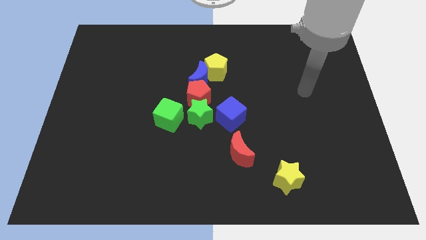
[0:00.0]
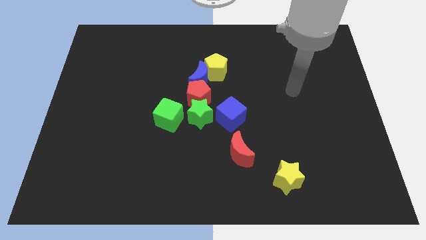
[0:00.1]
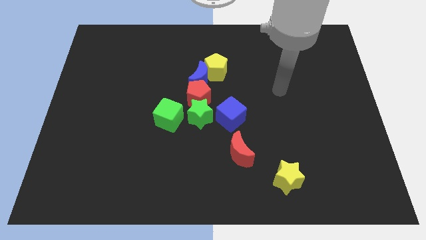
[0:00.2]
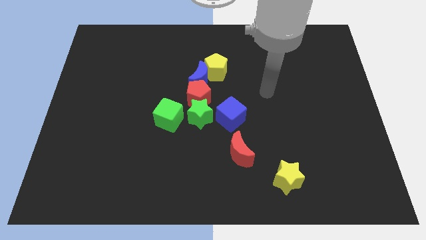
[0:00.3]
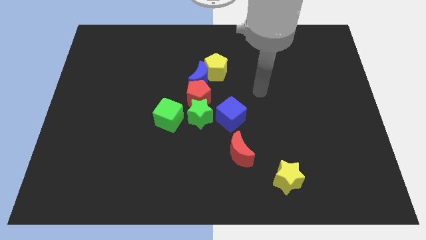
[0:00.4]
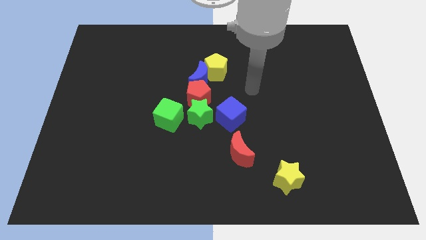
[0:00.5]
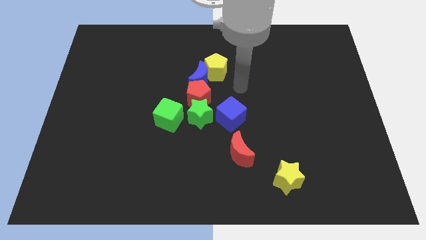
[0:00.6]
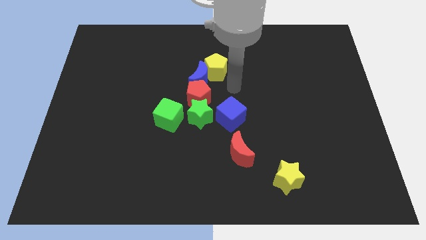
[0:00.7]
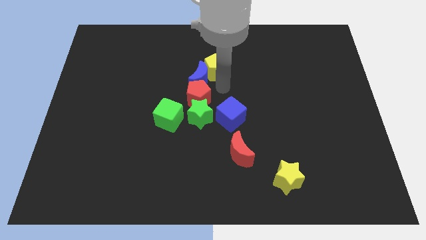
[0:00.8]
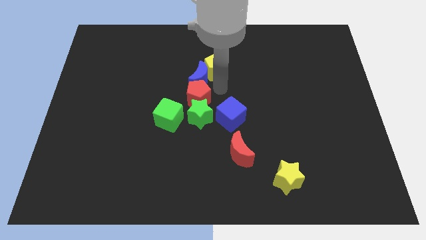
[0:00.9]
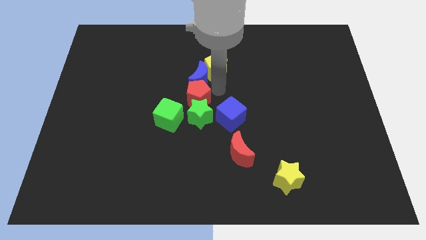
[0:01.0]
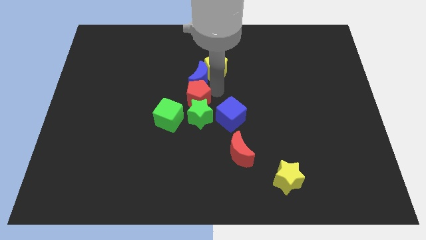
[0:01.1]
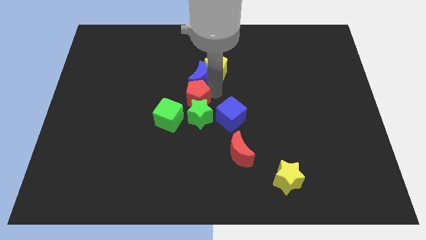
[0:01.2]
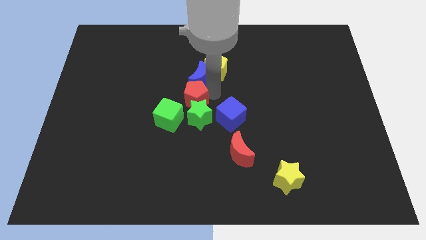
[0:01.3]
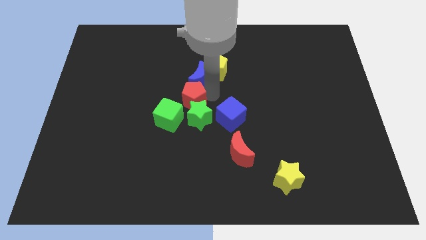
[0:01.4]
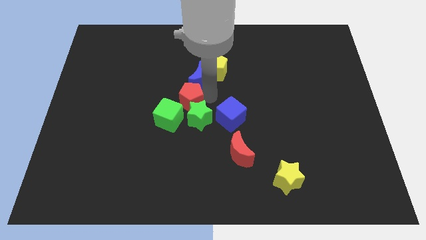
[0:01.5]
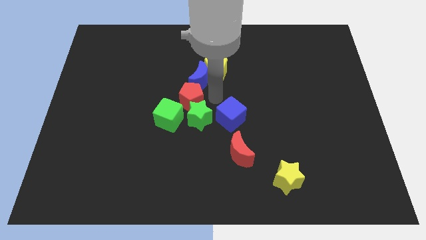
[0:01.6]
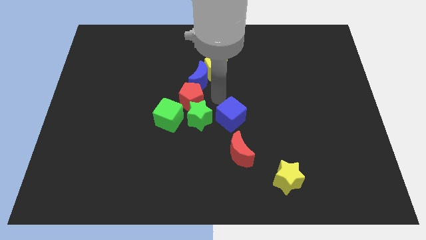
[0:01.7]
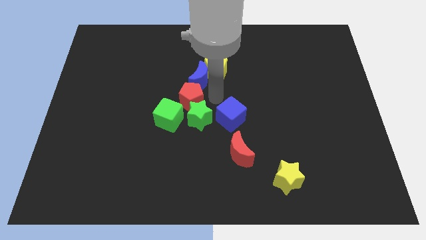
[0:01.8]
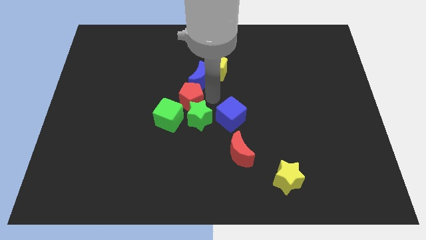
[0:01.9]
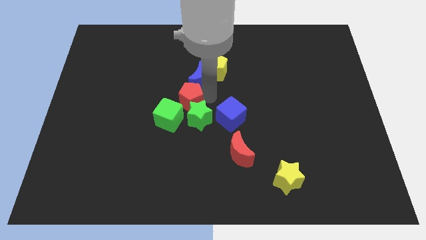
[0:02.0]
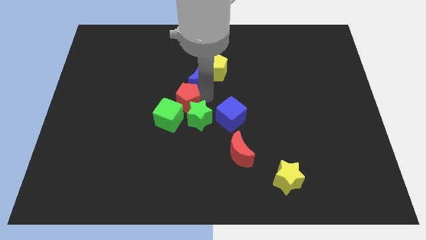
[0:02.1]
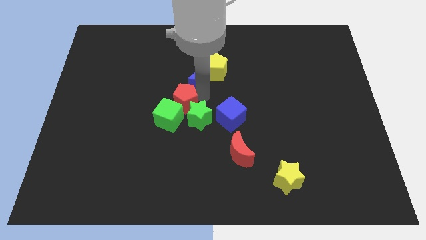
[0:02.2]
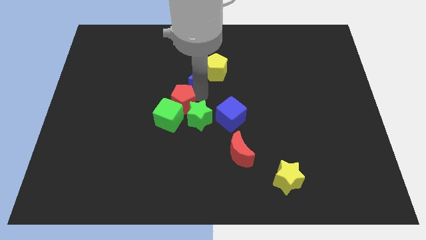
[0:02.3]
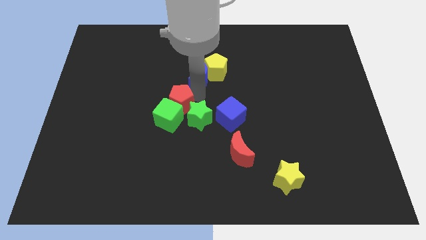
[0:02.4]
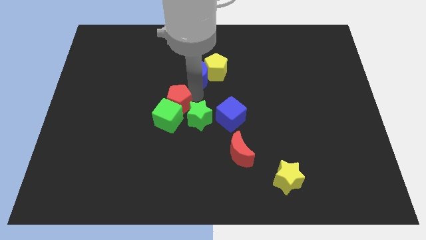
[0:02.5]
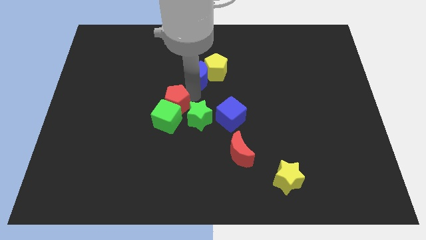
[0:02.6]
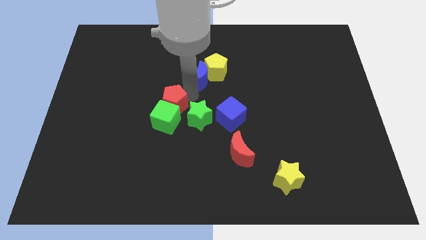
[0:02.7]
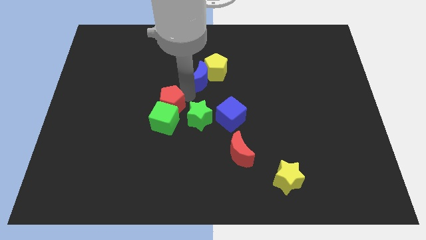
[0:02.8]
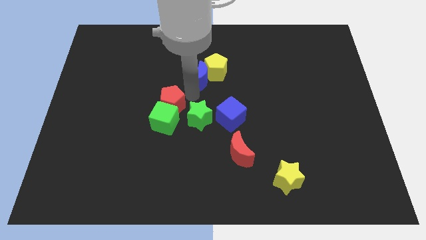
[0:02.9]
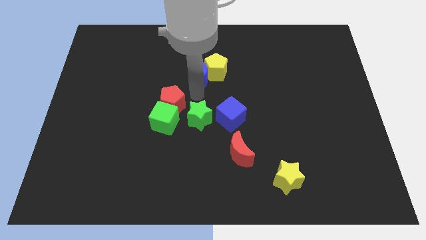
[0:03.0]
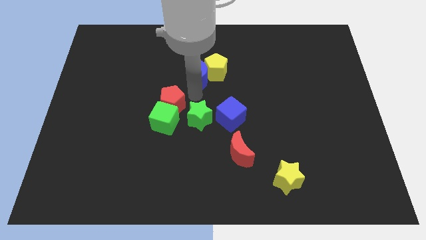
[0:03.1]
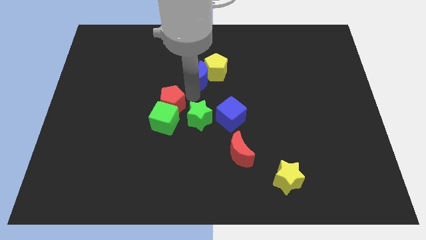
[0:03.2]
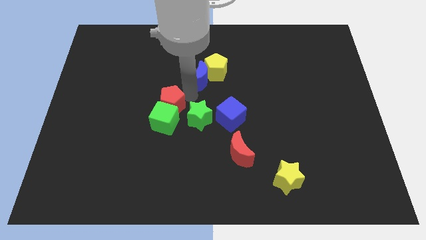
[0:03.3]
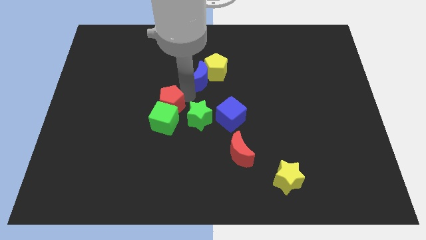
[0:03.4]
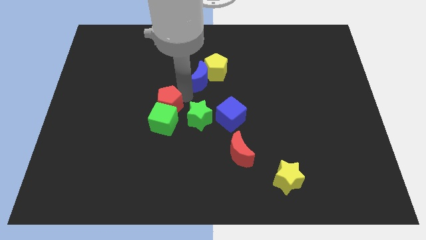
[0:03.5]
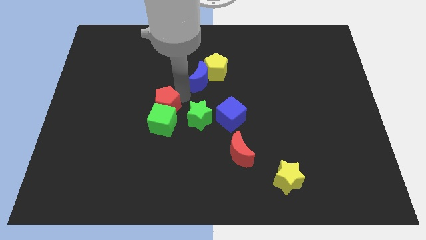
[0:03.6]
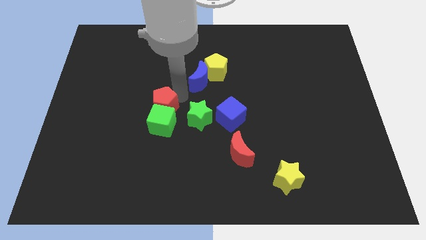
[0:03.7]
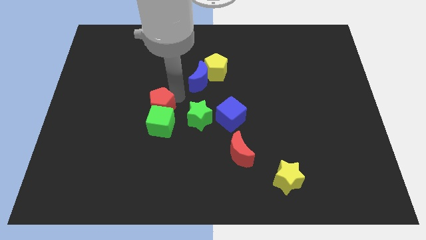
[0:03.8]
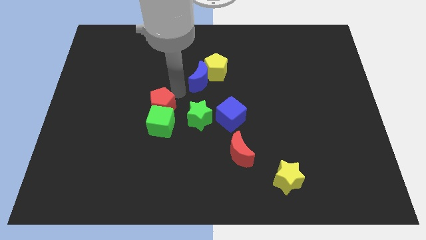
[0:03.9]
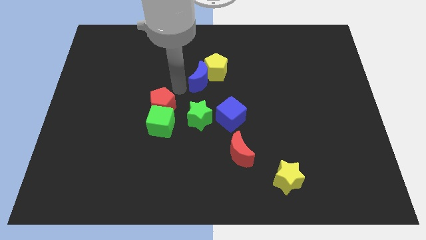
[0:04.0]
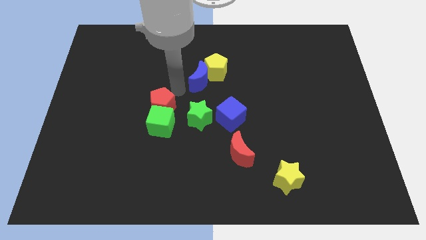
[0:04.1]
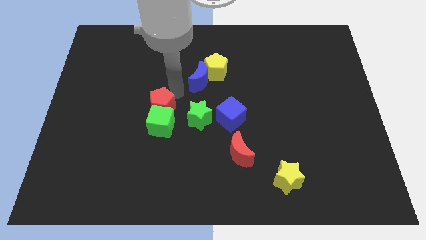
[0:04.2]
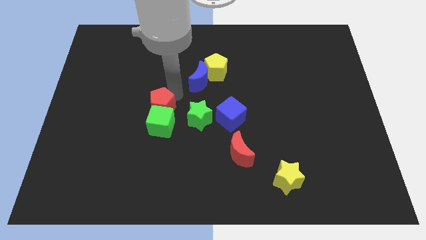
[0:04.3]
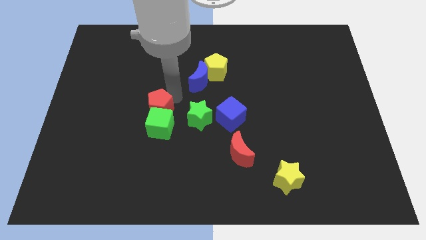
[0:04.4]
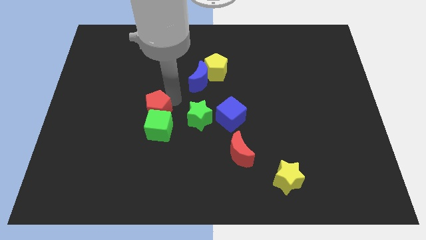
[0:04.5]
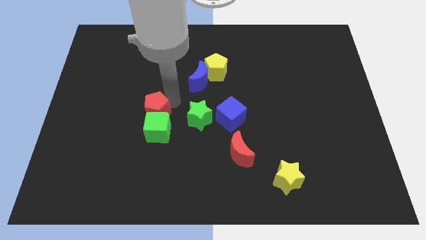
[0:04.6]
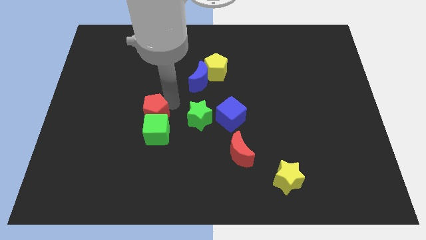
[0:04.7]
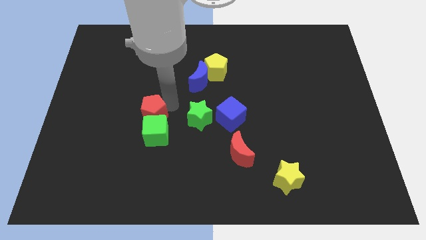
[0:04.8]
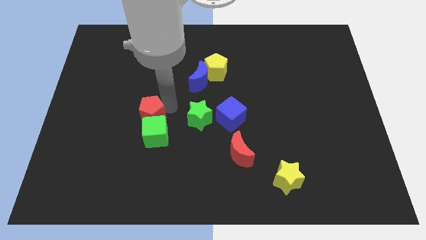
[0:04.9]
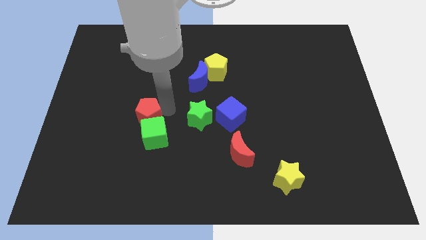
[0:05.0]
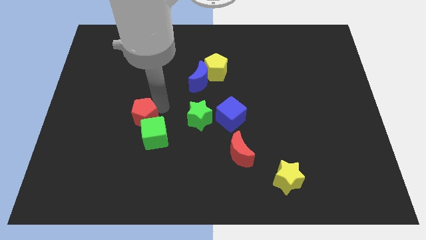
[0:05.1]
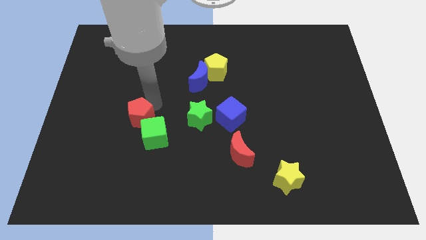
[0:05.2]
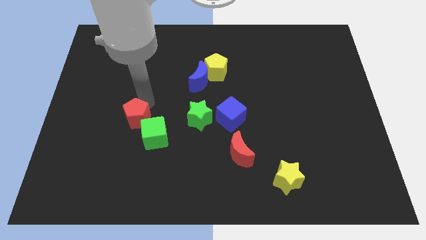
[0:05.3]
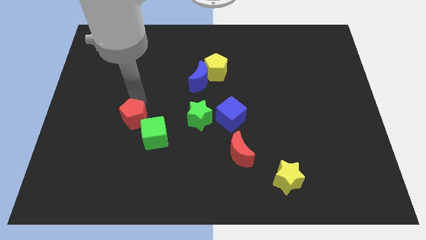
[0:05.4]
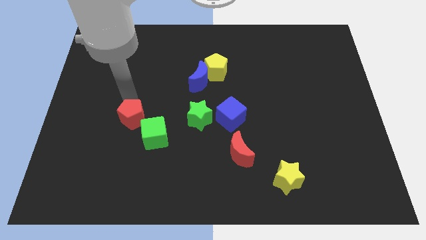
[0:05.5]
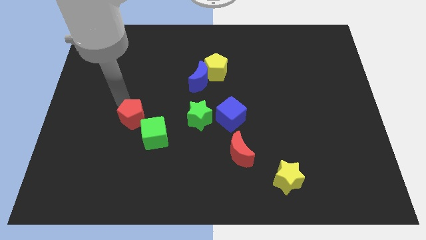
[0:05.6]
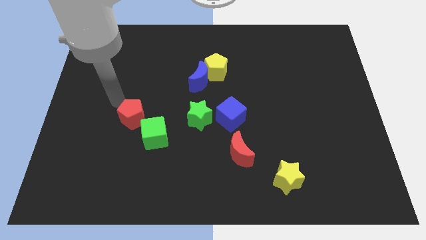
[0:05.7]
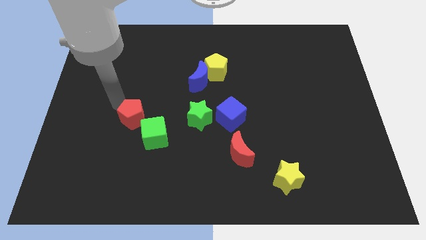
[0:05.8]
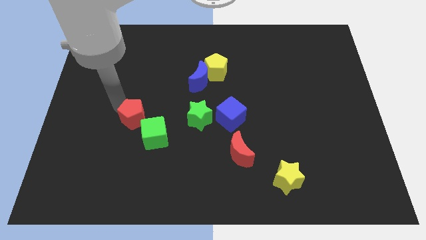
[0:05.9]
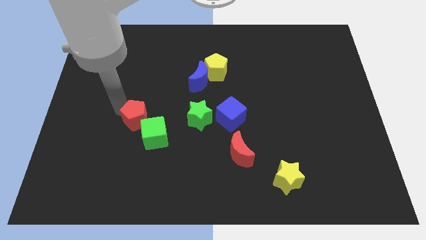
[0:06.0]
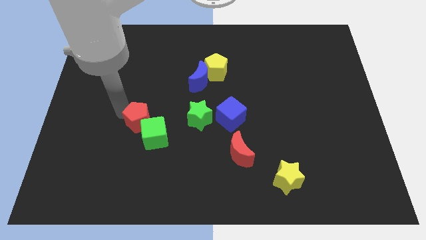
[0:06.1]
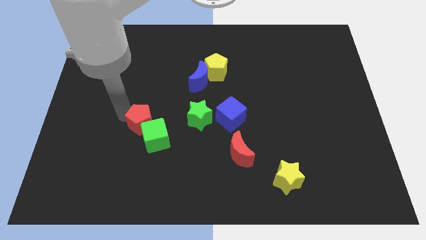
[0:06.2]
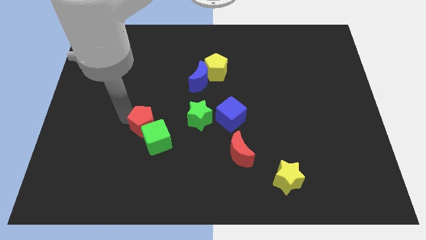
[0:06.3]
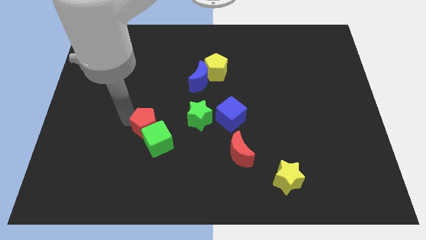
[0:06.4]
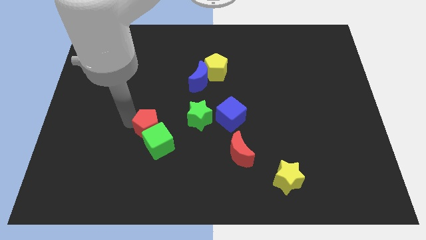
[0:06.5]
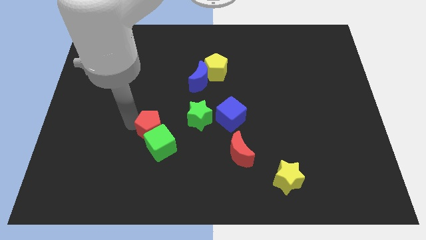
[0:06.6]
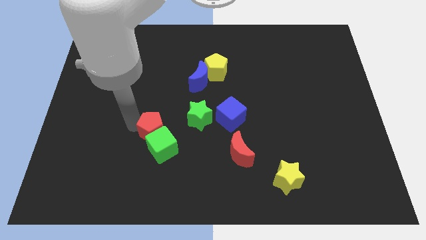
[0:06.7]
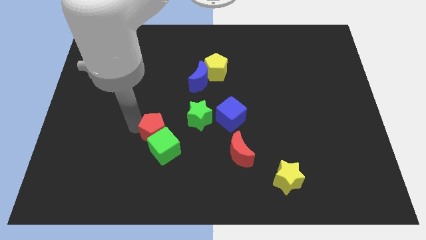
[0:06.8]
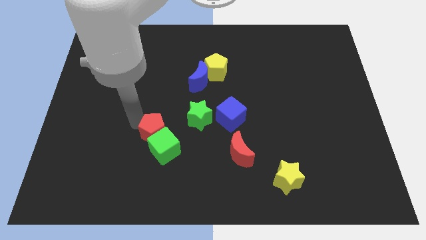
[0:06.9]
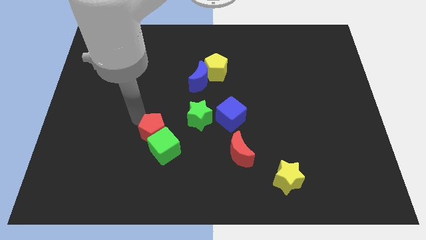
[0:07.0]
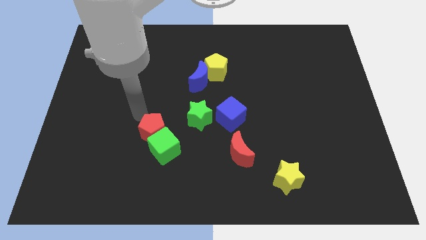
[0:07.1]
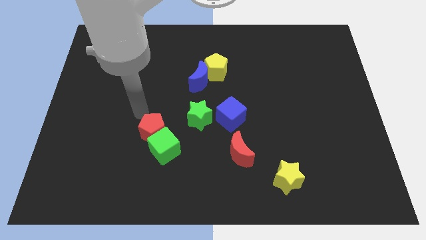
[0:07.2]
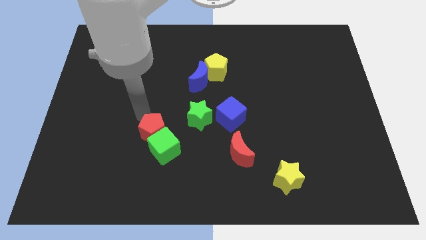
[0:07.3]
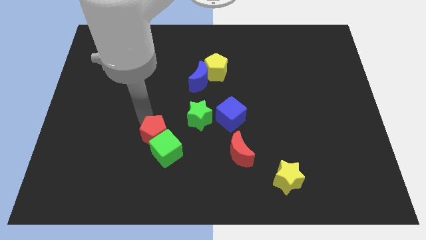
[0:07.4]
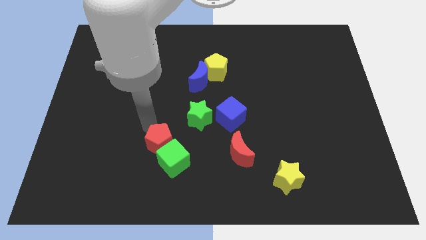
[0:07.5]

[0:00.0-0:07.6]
slightly push the red pentagon downwards

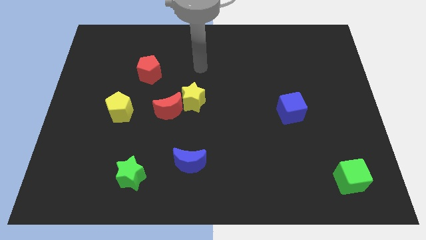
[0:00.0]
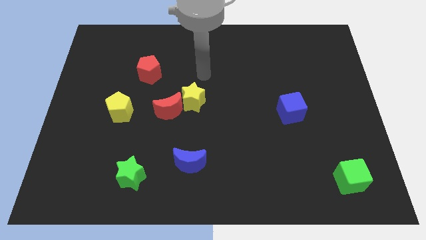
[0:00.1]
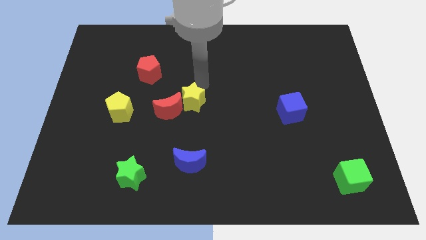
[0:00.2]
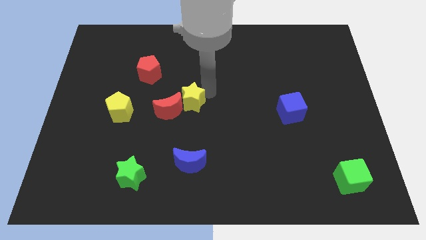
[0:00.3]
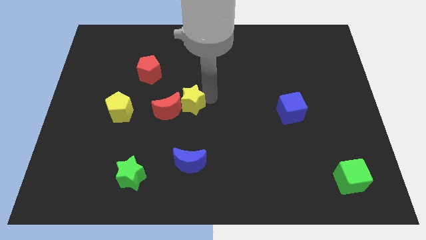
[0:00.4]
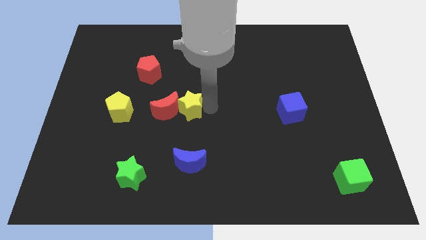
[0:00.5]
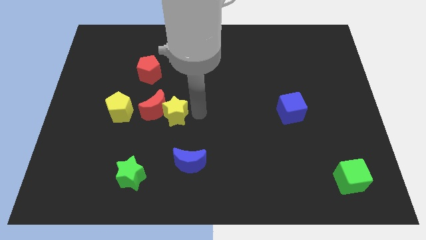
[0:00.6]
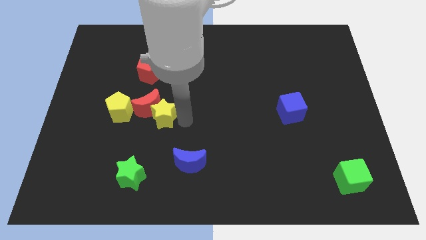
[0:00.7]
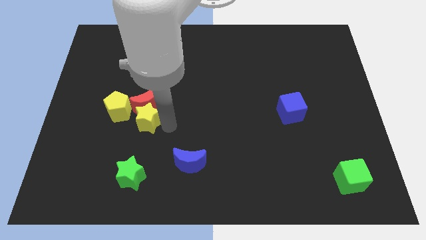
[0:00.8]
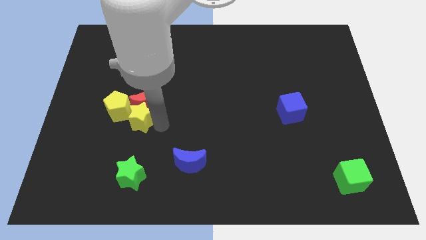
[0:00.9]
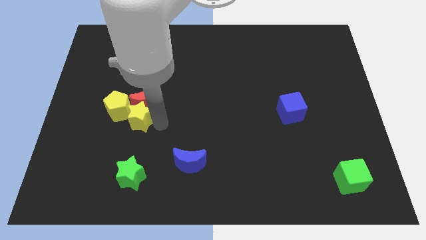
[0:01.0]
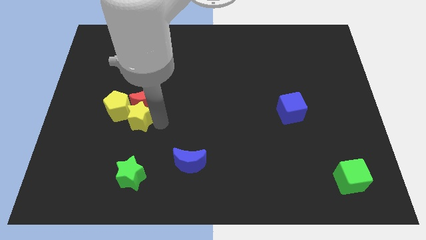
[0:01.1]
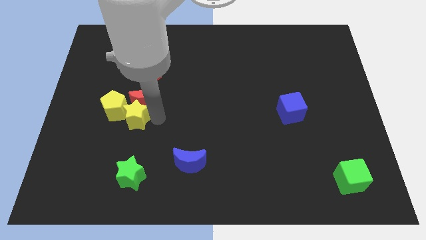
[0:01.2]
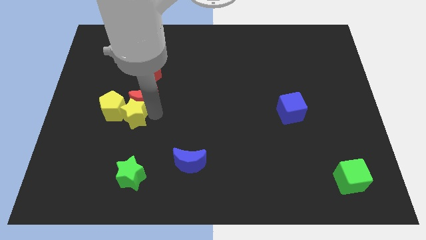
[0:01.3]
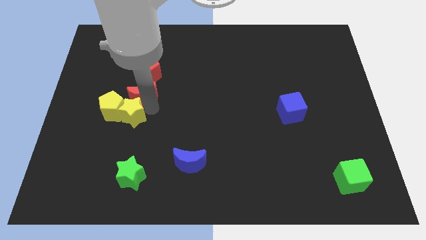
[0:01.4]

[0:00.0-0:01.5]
move the red moon a little diagonally upwards and left
